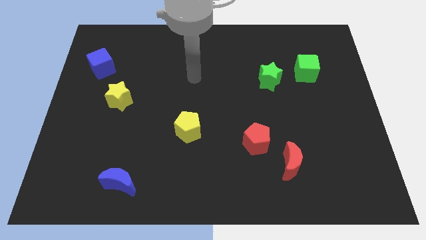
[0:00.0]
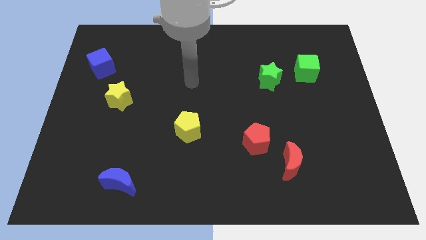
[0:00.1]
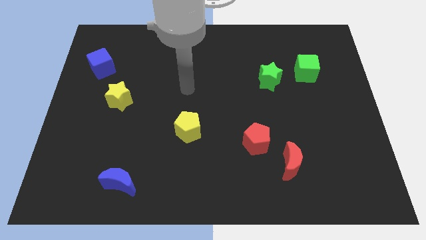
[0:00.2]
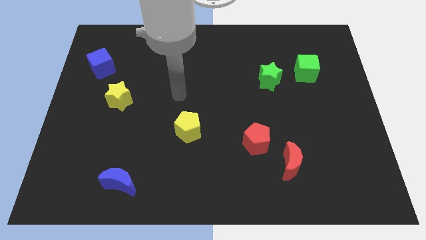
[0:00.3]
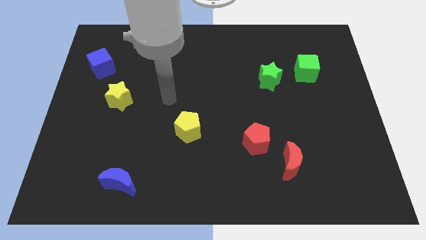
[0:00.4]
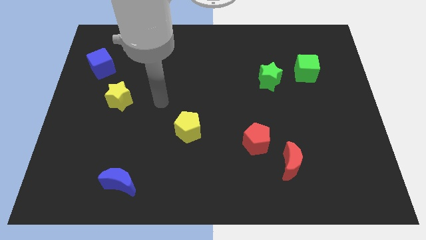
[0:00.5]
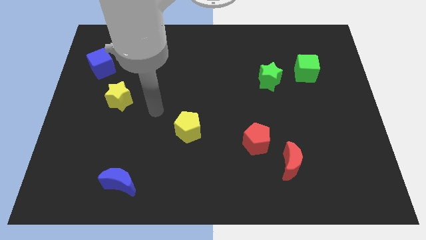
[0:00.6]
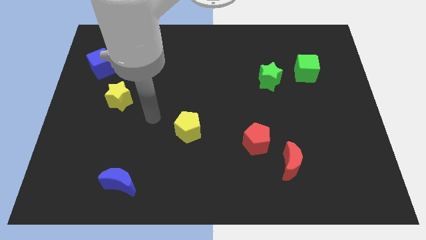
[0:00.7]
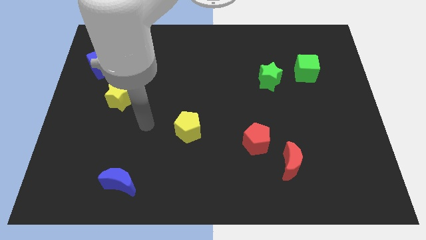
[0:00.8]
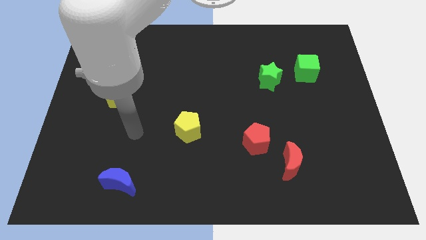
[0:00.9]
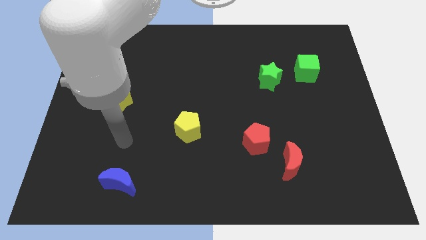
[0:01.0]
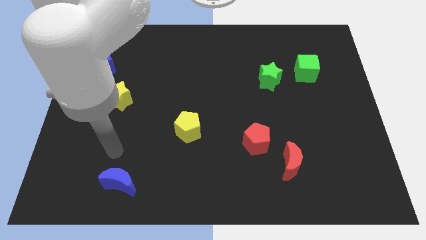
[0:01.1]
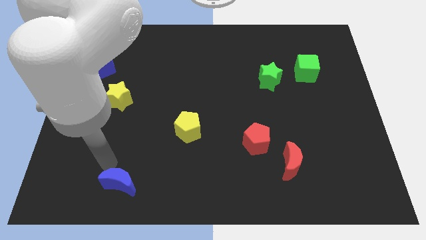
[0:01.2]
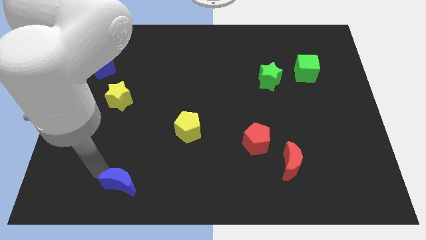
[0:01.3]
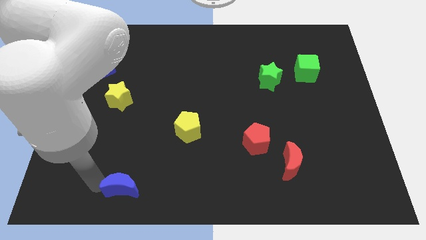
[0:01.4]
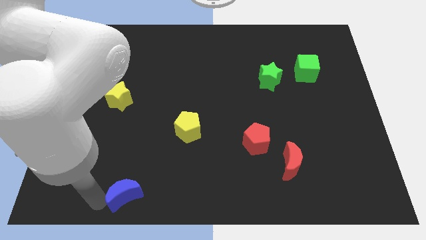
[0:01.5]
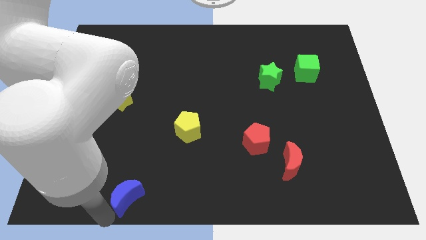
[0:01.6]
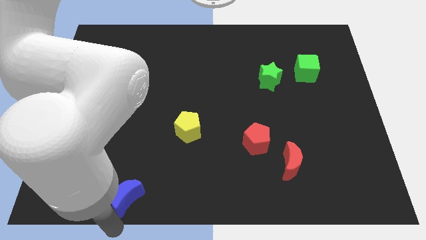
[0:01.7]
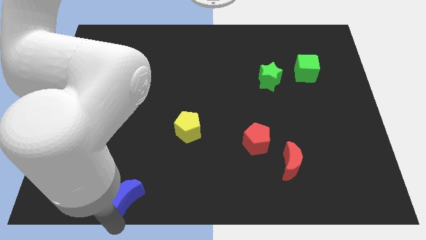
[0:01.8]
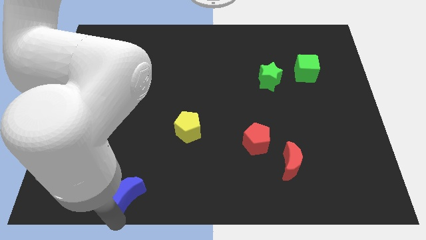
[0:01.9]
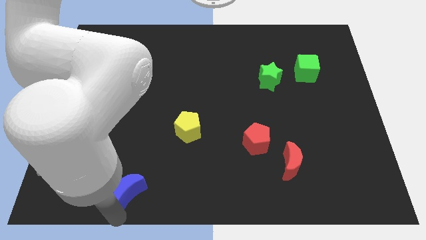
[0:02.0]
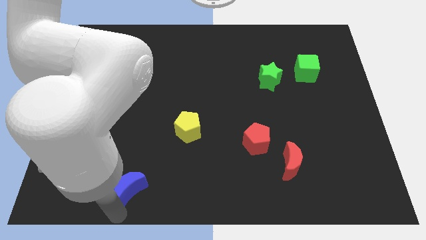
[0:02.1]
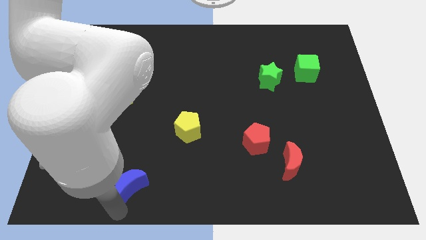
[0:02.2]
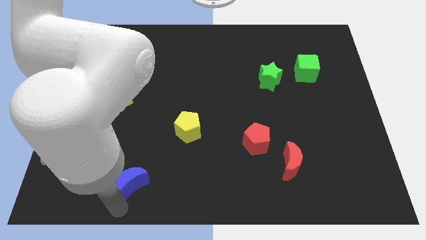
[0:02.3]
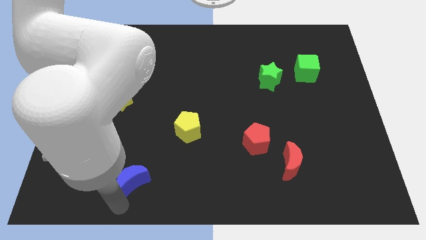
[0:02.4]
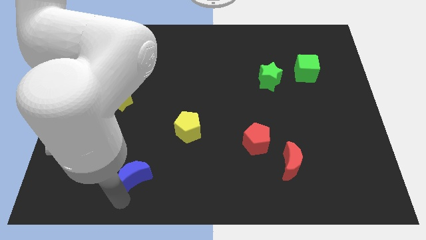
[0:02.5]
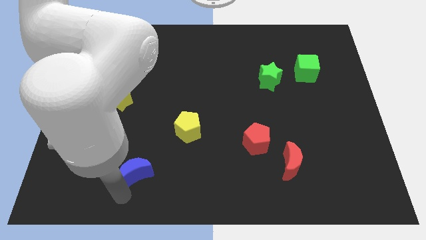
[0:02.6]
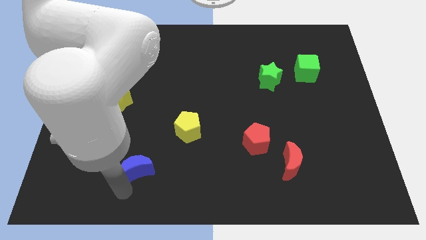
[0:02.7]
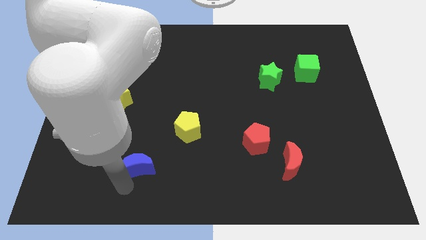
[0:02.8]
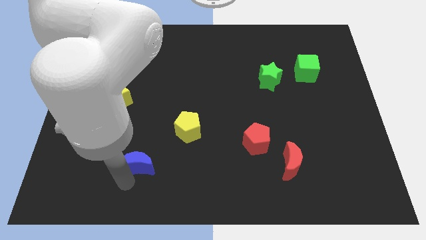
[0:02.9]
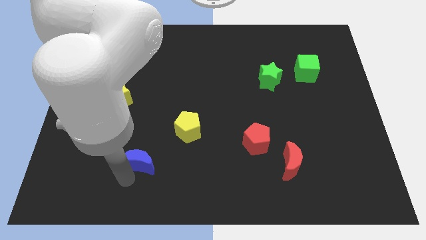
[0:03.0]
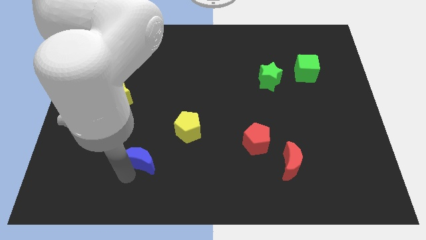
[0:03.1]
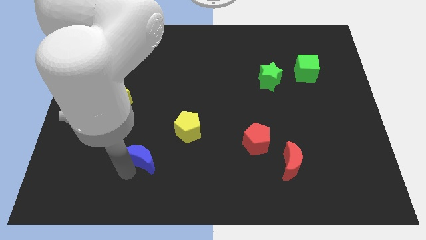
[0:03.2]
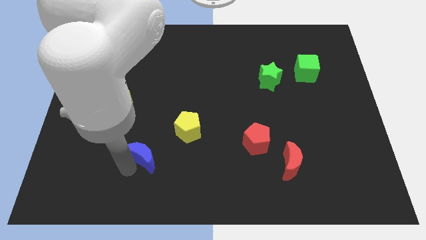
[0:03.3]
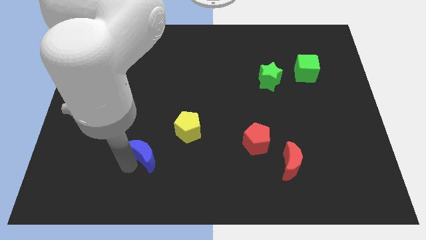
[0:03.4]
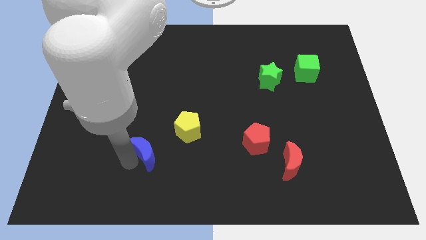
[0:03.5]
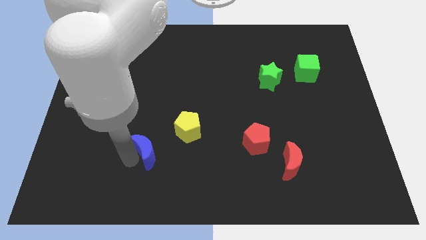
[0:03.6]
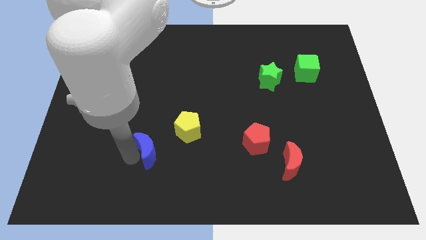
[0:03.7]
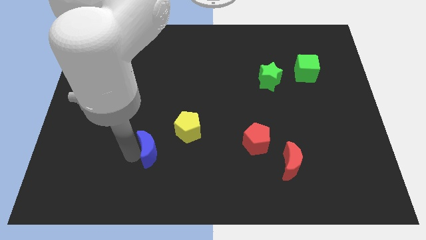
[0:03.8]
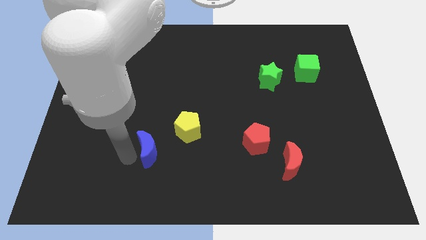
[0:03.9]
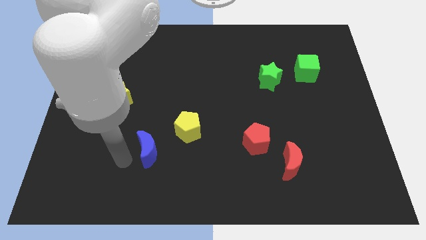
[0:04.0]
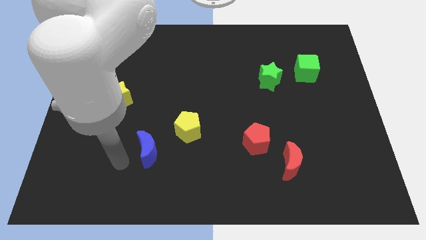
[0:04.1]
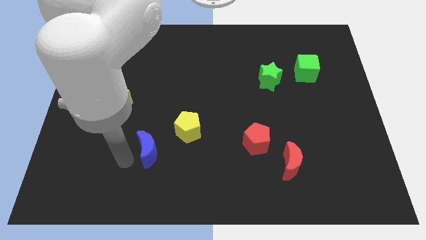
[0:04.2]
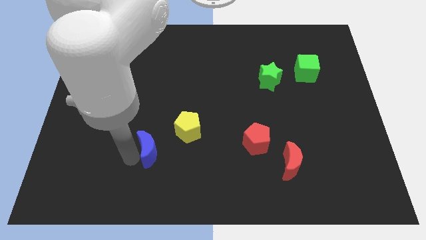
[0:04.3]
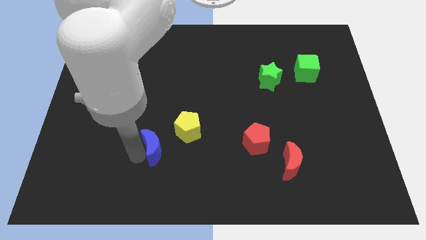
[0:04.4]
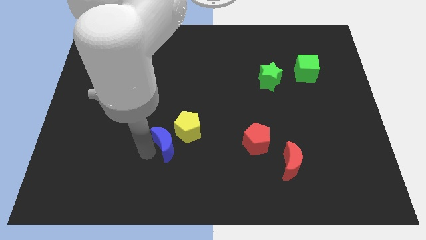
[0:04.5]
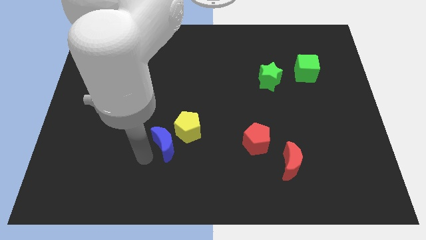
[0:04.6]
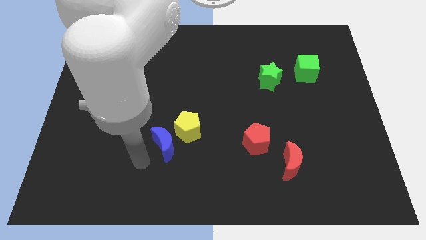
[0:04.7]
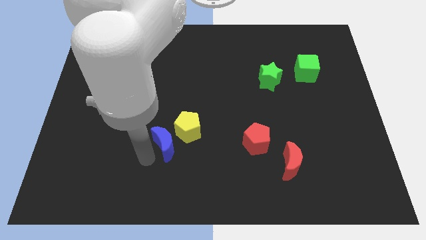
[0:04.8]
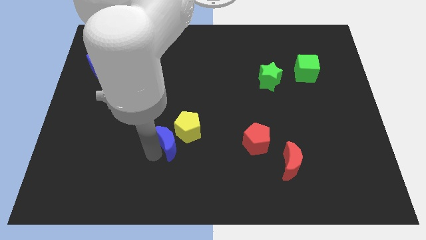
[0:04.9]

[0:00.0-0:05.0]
put the blue moon to the yellow pentagon

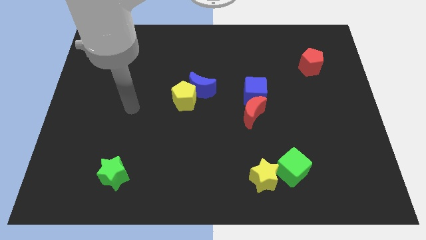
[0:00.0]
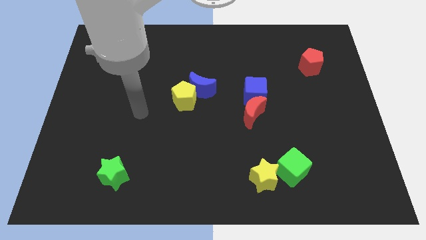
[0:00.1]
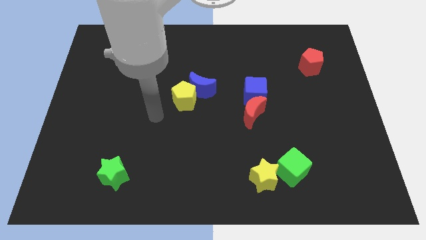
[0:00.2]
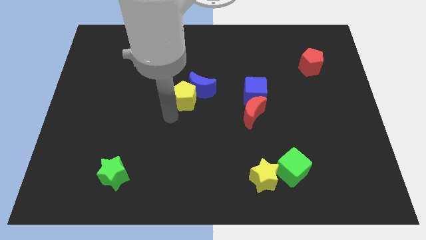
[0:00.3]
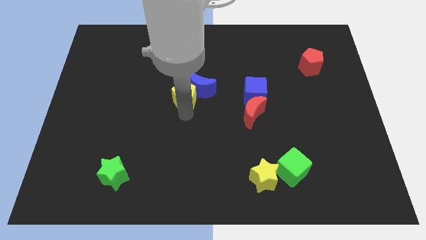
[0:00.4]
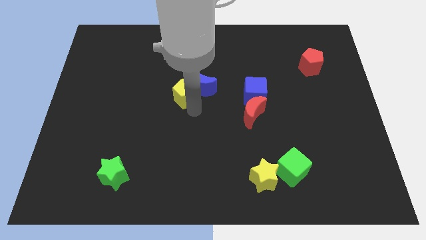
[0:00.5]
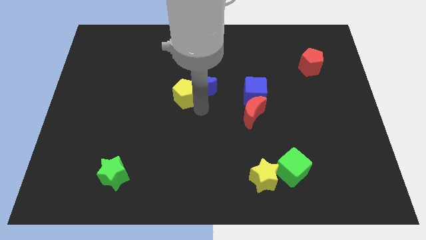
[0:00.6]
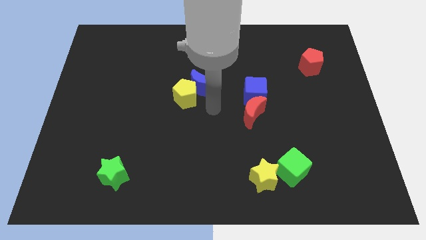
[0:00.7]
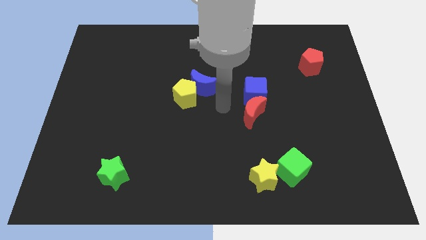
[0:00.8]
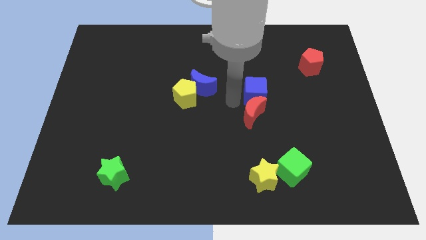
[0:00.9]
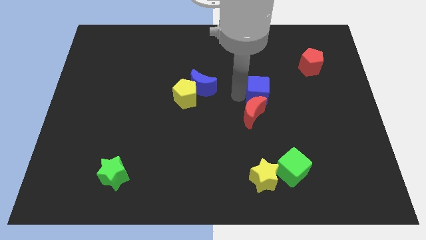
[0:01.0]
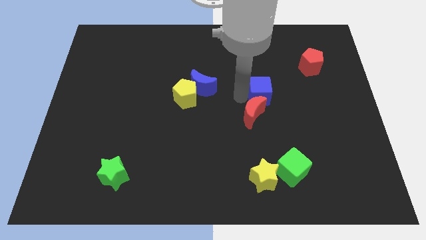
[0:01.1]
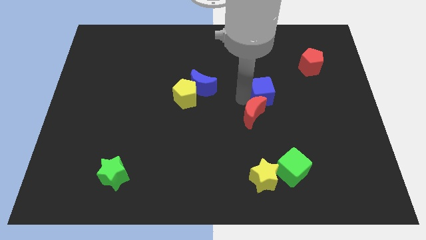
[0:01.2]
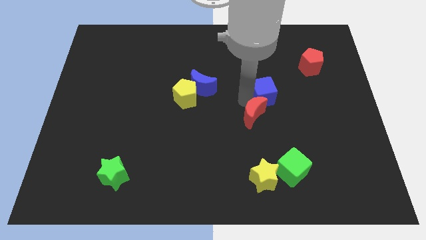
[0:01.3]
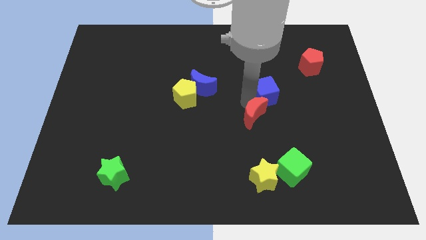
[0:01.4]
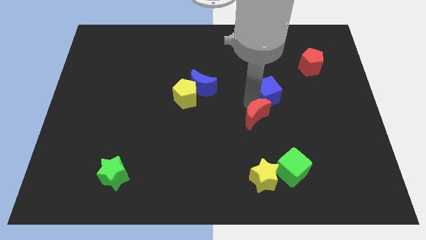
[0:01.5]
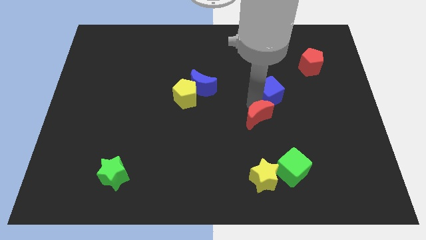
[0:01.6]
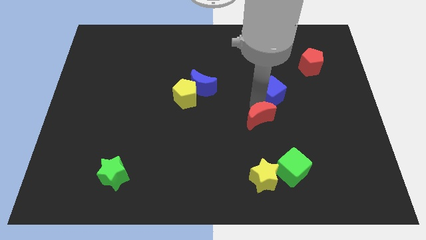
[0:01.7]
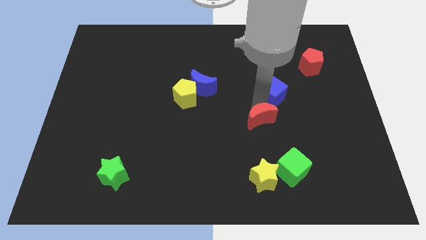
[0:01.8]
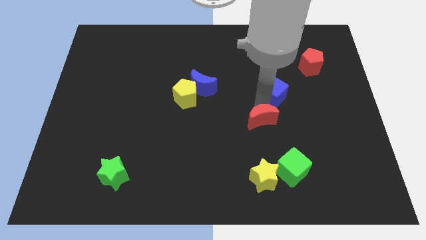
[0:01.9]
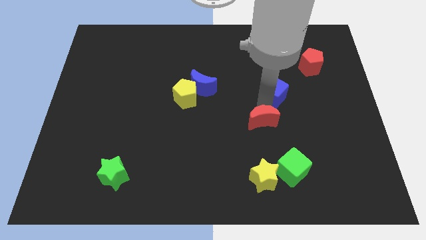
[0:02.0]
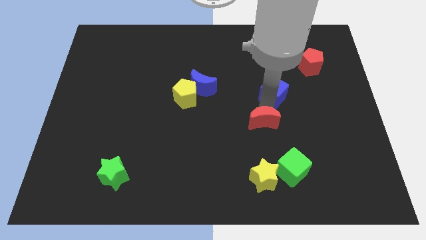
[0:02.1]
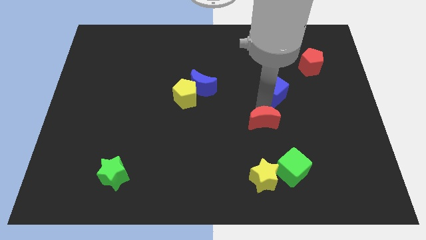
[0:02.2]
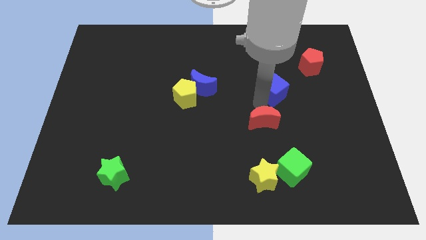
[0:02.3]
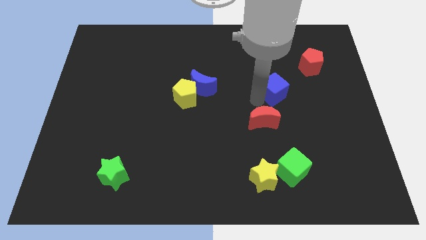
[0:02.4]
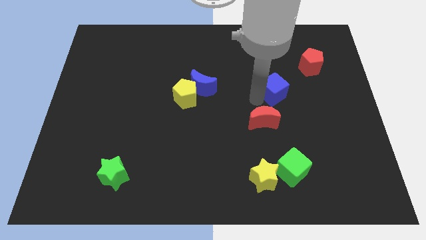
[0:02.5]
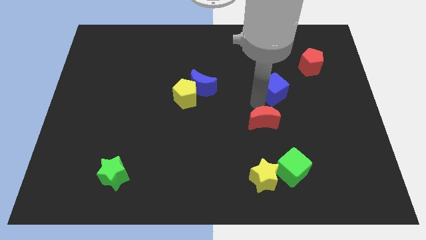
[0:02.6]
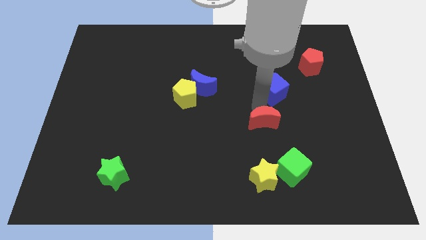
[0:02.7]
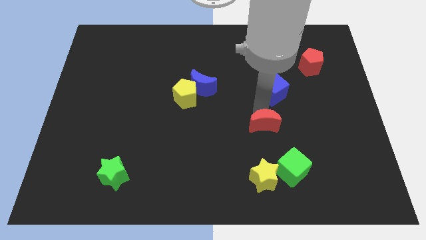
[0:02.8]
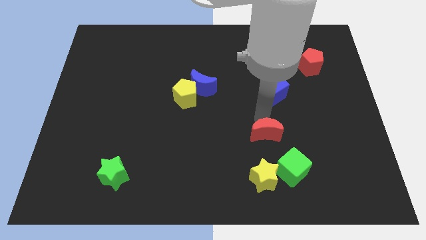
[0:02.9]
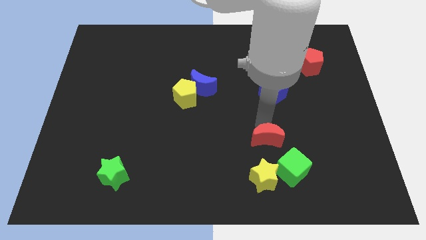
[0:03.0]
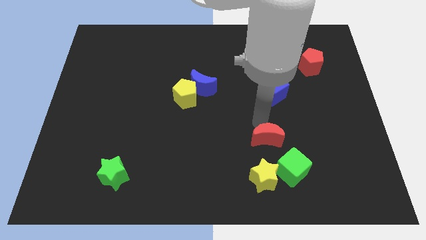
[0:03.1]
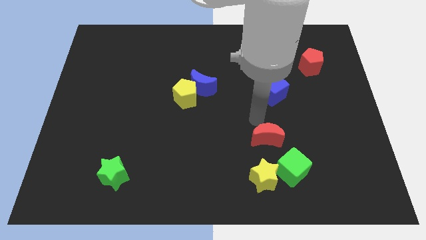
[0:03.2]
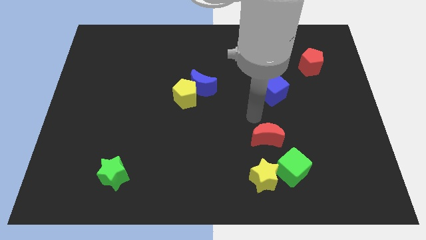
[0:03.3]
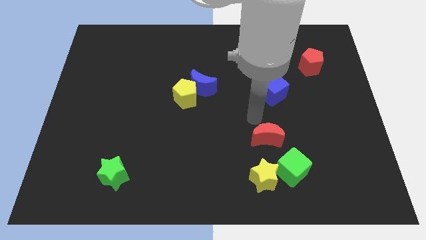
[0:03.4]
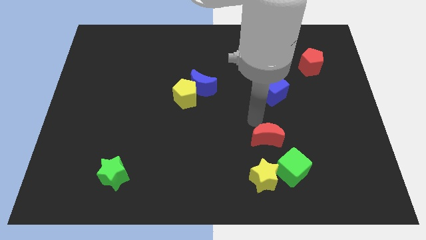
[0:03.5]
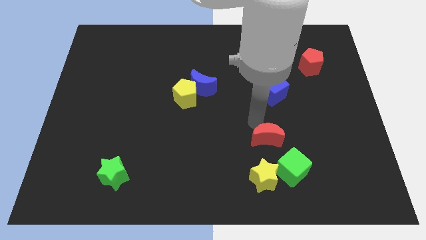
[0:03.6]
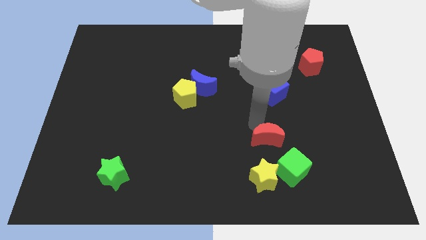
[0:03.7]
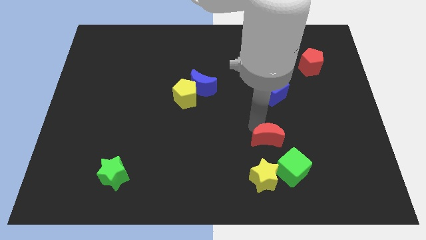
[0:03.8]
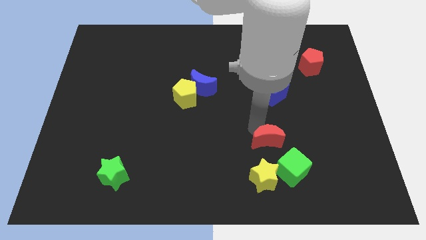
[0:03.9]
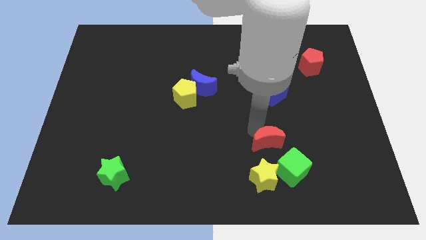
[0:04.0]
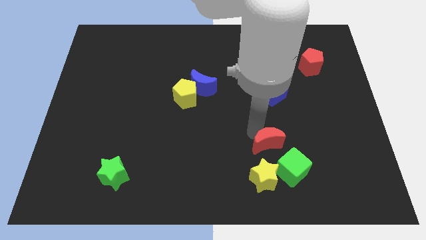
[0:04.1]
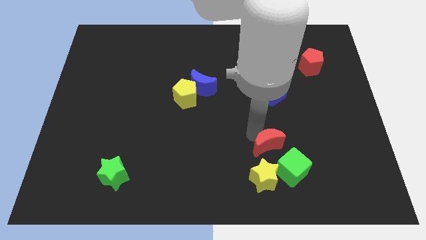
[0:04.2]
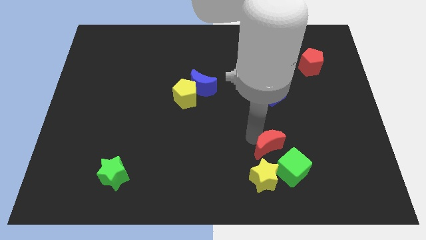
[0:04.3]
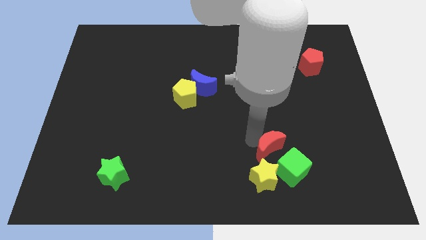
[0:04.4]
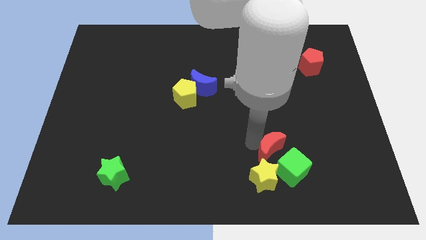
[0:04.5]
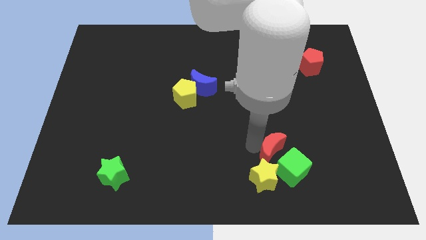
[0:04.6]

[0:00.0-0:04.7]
slide the red moon close to the green cube
